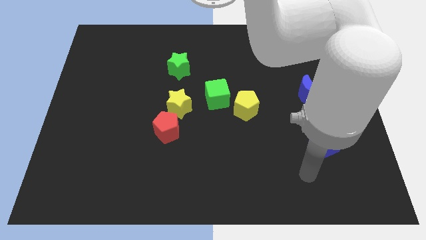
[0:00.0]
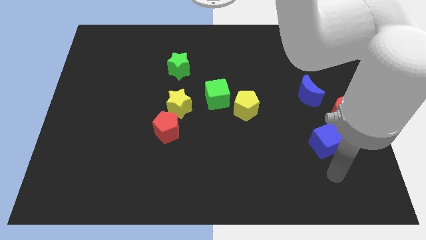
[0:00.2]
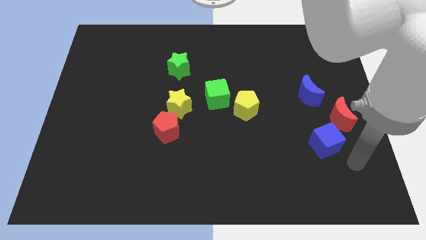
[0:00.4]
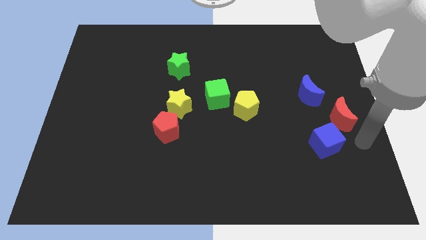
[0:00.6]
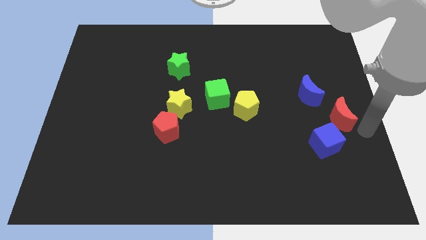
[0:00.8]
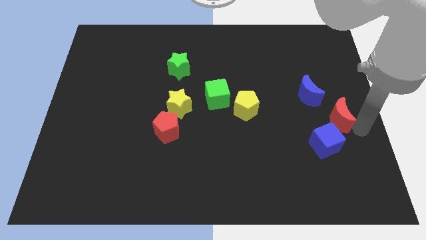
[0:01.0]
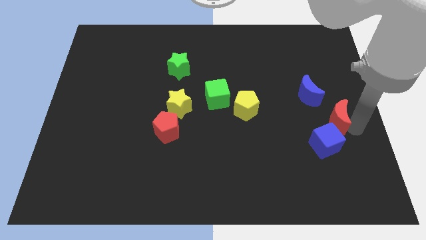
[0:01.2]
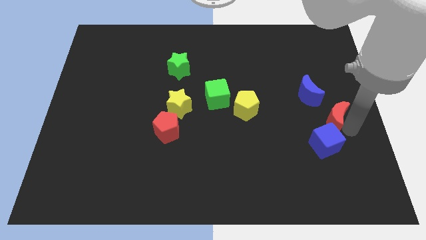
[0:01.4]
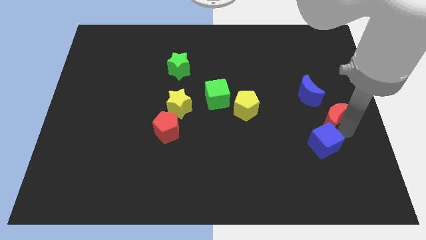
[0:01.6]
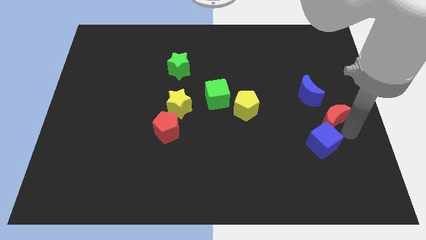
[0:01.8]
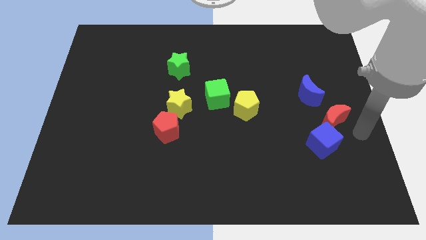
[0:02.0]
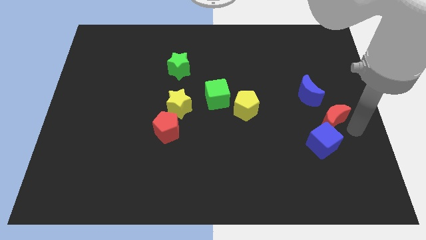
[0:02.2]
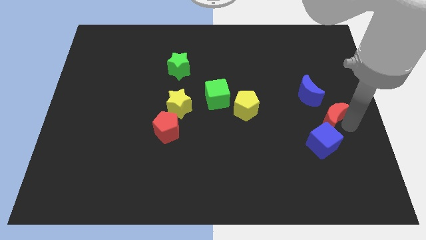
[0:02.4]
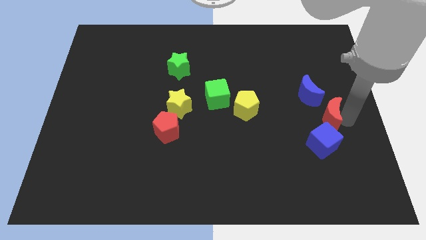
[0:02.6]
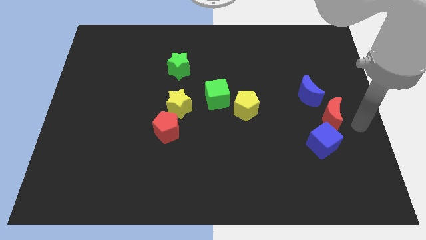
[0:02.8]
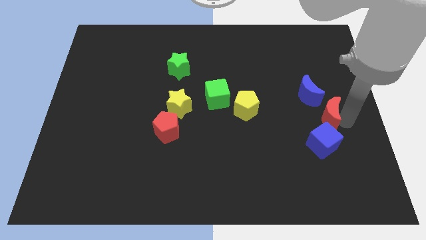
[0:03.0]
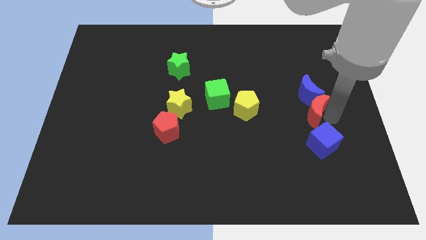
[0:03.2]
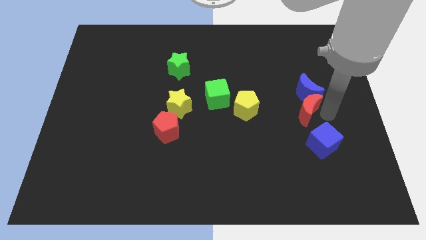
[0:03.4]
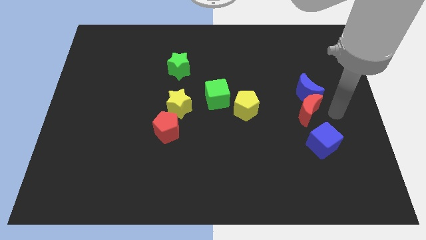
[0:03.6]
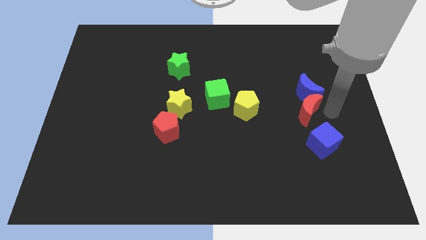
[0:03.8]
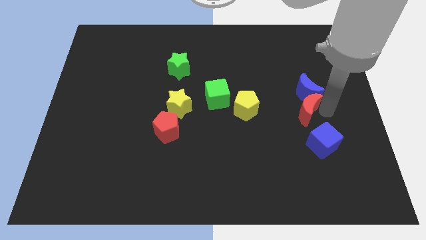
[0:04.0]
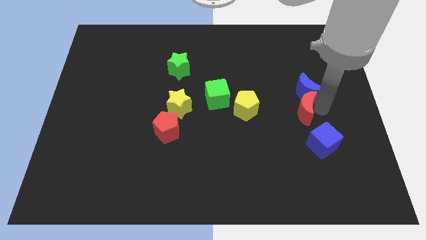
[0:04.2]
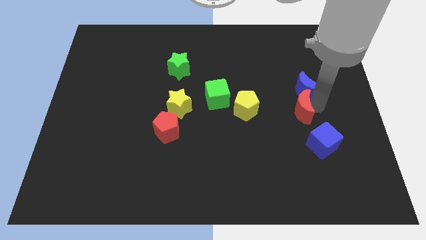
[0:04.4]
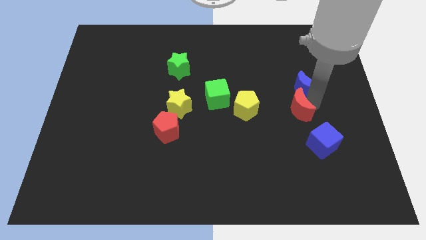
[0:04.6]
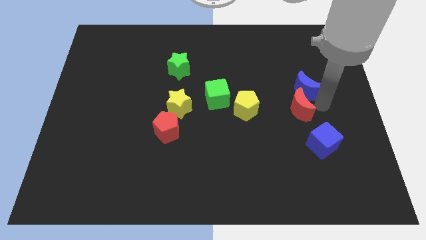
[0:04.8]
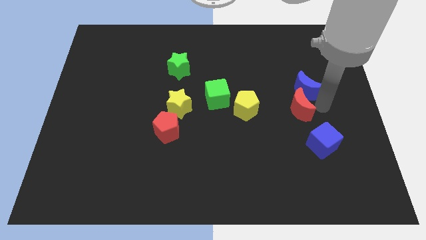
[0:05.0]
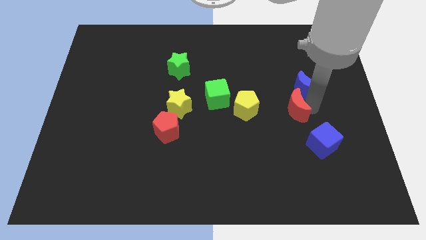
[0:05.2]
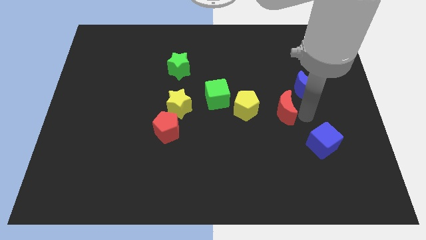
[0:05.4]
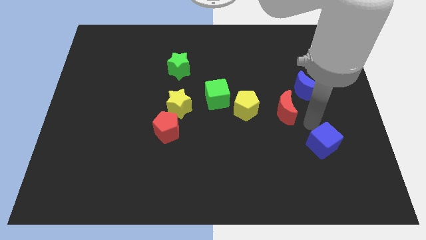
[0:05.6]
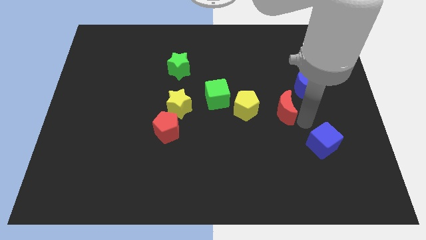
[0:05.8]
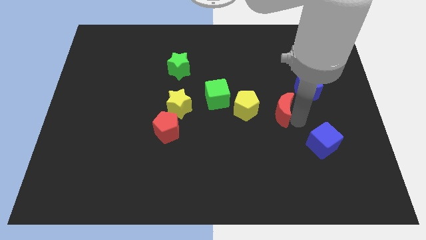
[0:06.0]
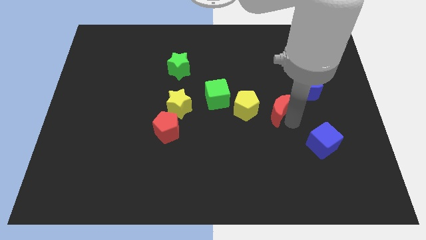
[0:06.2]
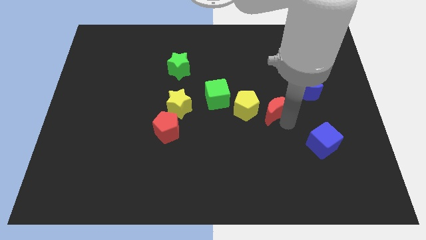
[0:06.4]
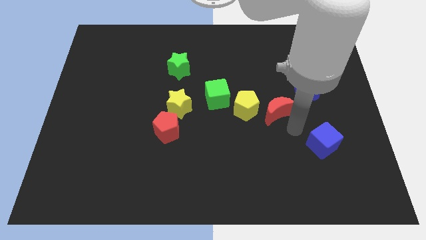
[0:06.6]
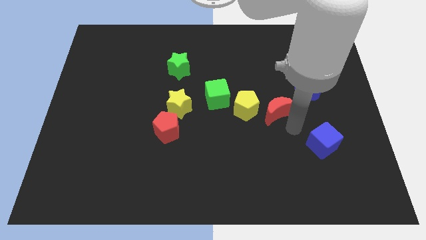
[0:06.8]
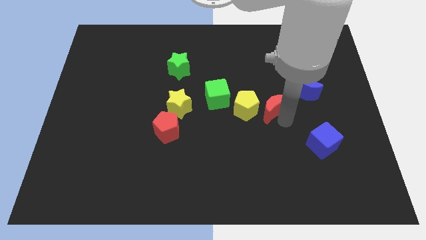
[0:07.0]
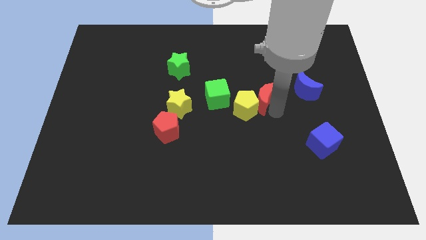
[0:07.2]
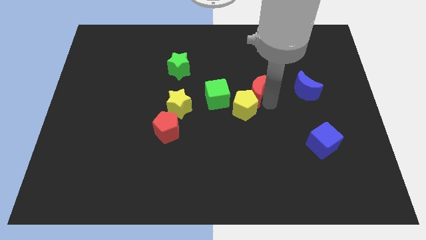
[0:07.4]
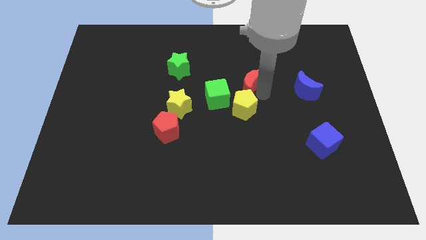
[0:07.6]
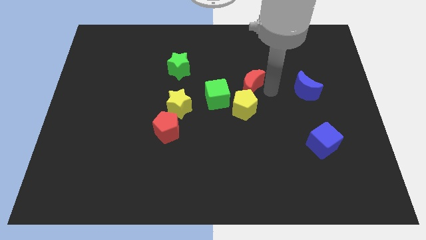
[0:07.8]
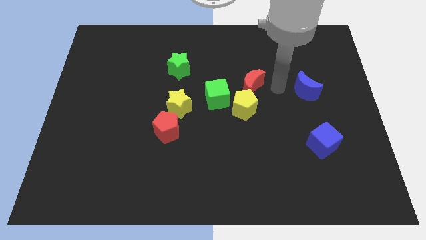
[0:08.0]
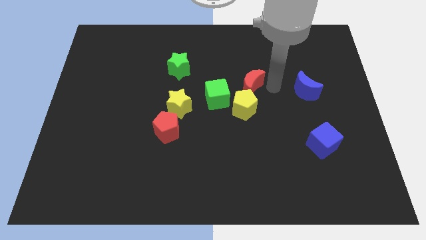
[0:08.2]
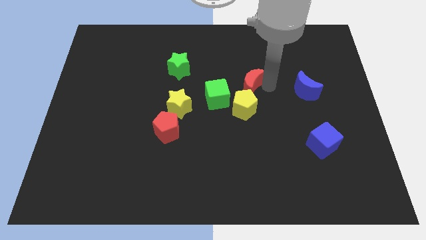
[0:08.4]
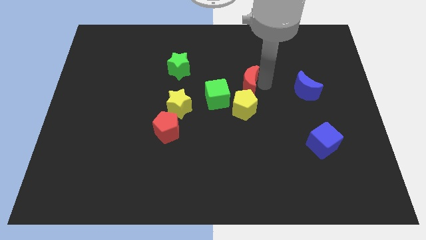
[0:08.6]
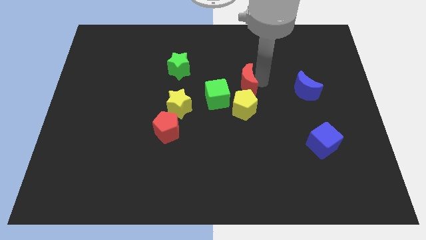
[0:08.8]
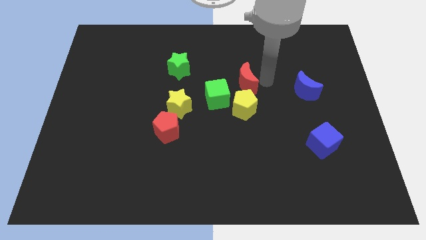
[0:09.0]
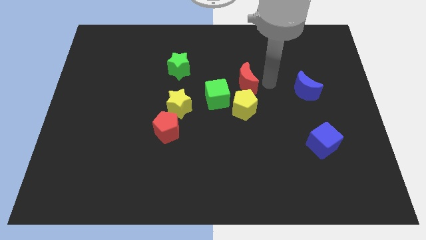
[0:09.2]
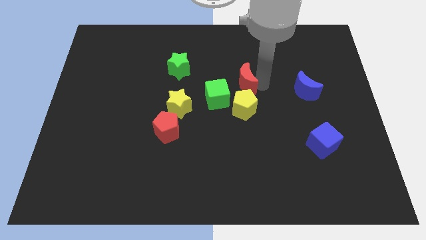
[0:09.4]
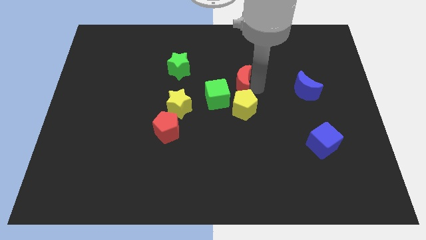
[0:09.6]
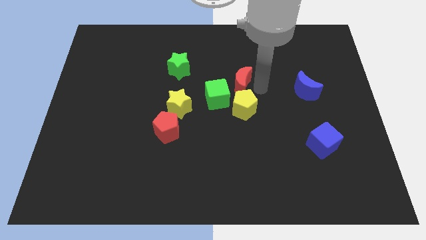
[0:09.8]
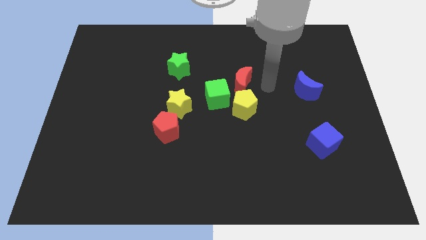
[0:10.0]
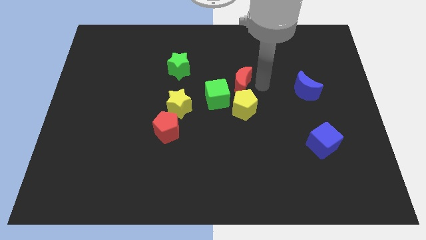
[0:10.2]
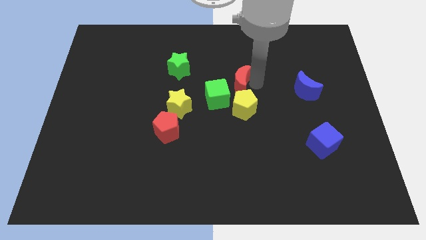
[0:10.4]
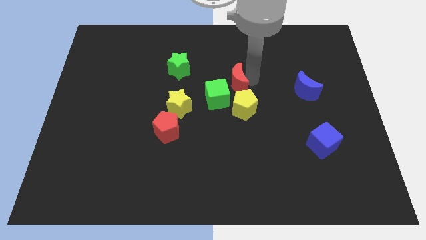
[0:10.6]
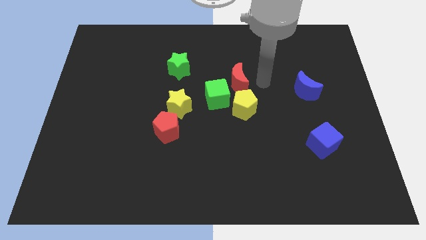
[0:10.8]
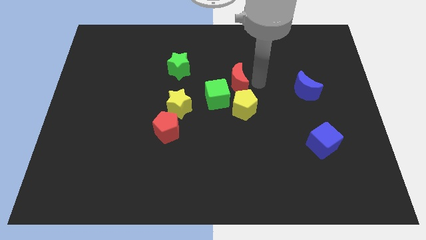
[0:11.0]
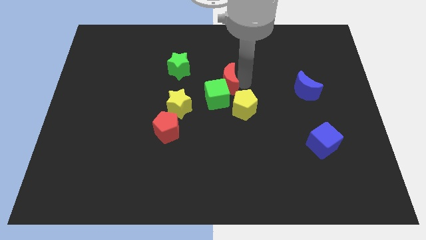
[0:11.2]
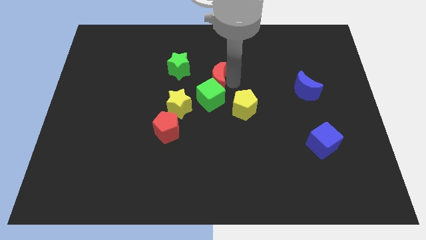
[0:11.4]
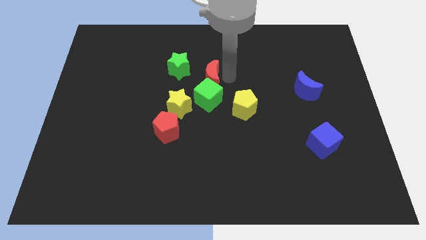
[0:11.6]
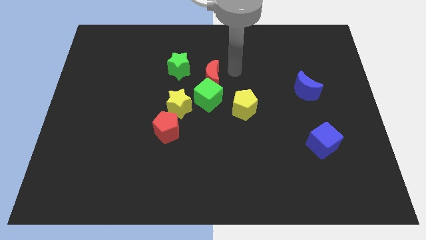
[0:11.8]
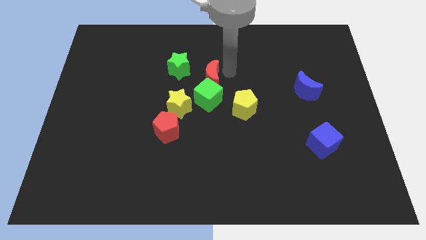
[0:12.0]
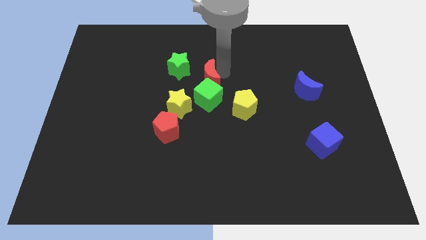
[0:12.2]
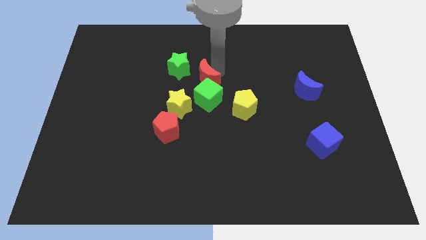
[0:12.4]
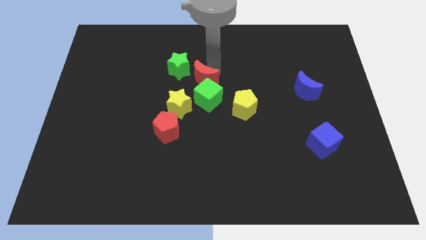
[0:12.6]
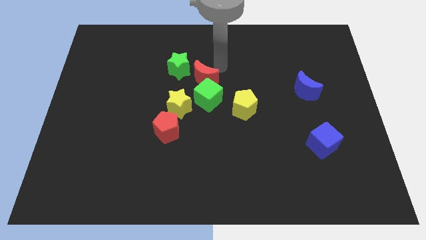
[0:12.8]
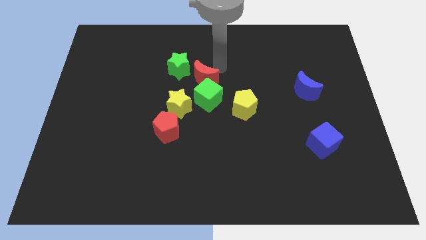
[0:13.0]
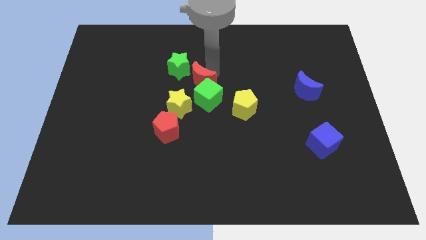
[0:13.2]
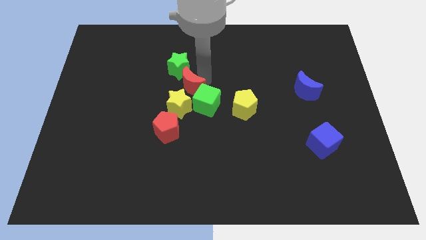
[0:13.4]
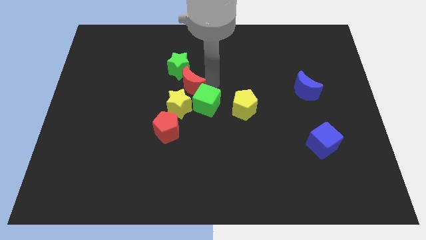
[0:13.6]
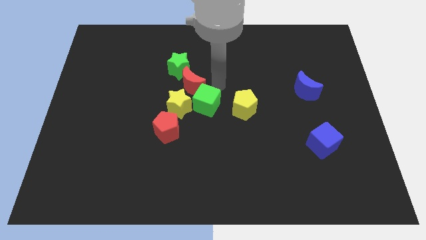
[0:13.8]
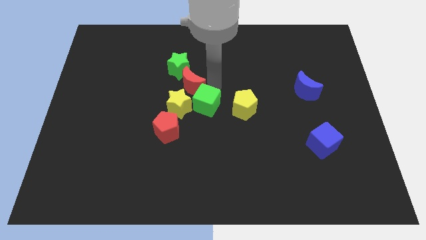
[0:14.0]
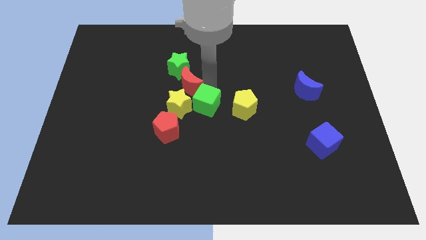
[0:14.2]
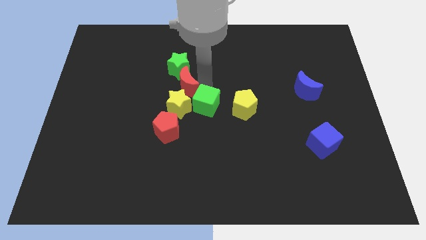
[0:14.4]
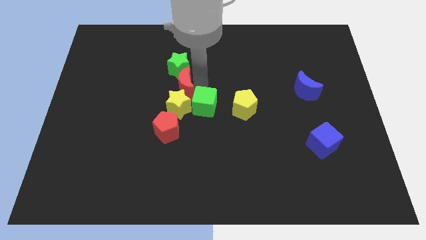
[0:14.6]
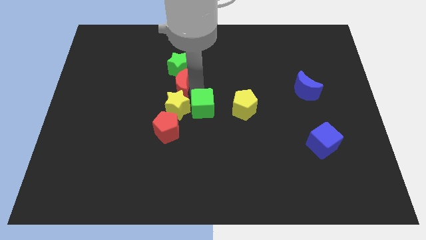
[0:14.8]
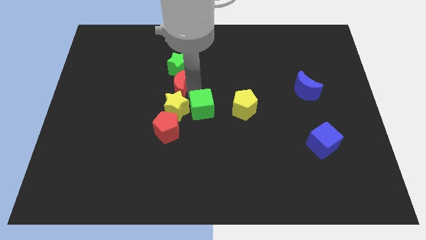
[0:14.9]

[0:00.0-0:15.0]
move the red moon to the bottom left side of the green star
